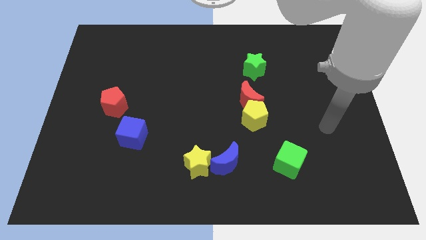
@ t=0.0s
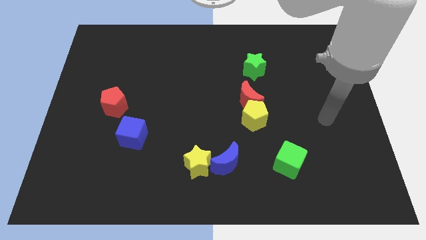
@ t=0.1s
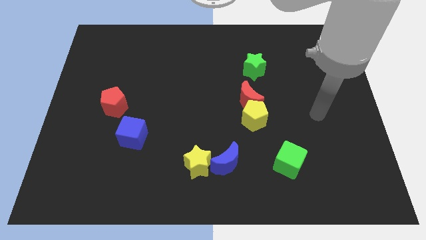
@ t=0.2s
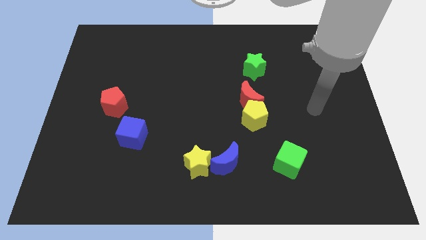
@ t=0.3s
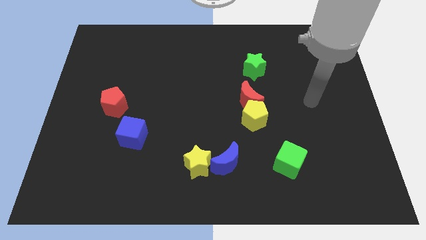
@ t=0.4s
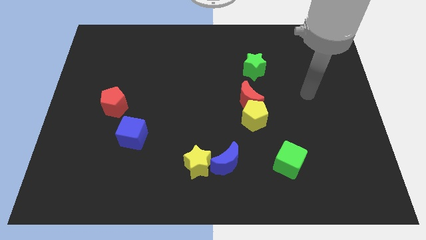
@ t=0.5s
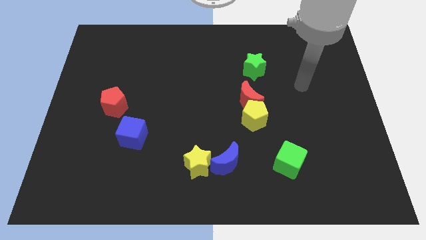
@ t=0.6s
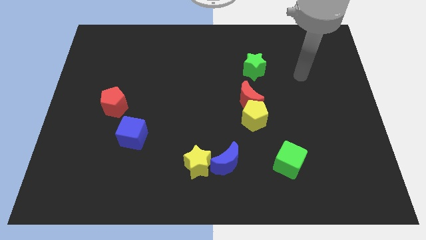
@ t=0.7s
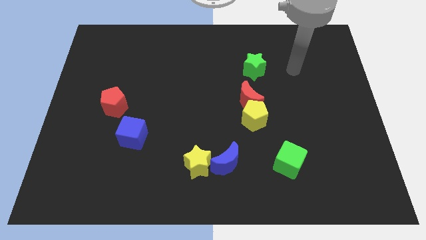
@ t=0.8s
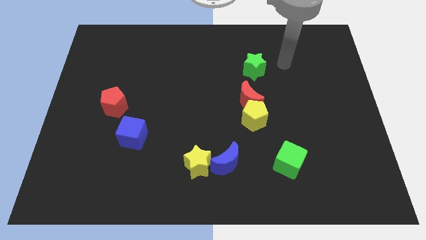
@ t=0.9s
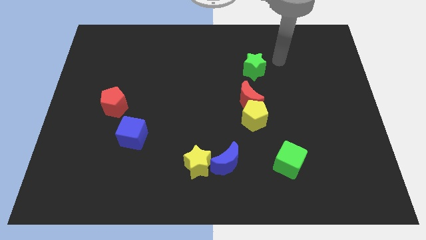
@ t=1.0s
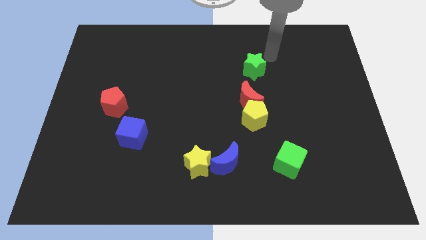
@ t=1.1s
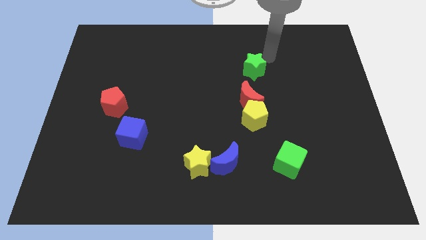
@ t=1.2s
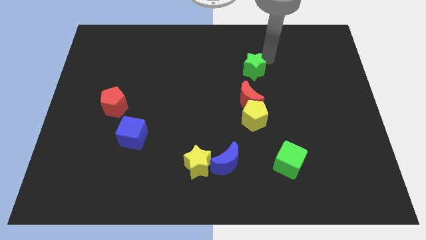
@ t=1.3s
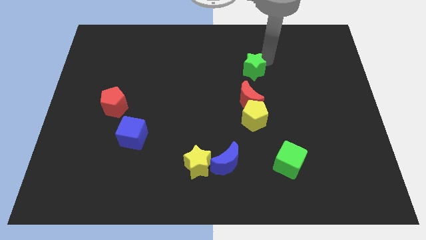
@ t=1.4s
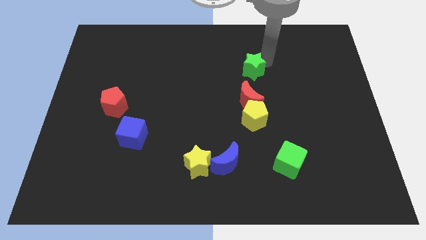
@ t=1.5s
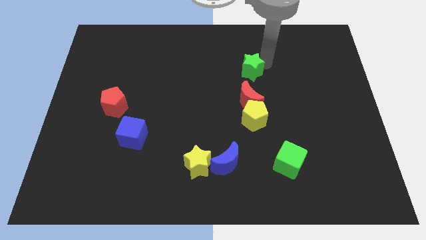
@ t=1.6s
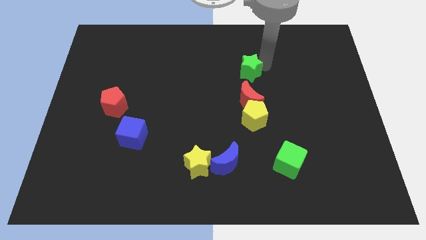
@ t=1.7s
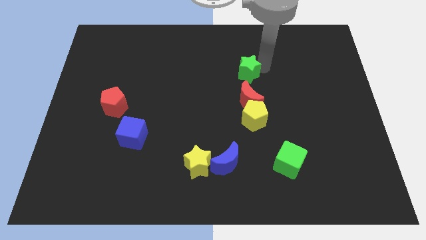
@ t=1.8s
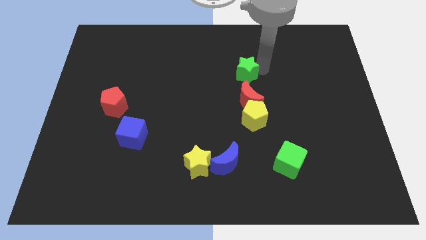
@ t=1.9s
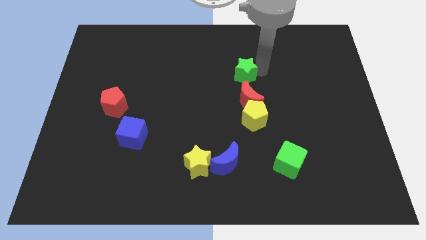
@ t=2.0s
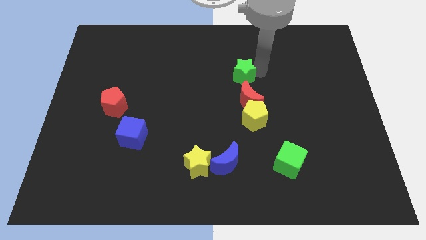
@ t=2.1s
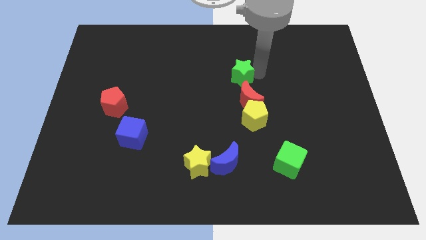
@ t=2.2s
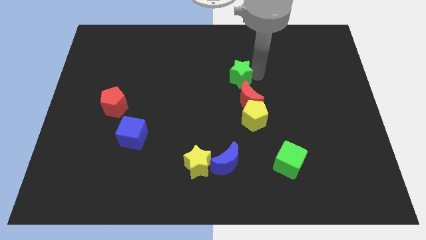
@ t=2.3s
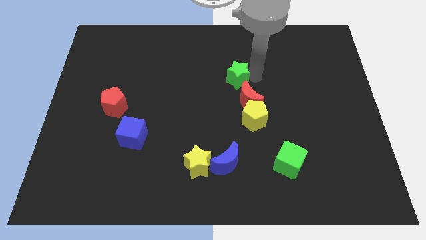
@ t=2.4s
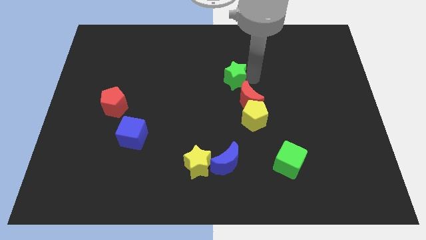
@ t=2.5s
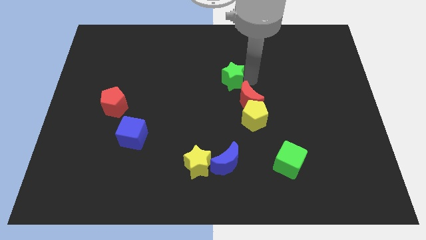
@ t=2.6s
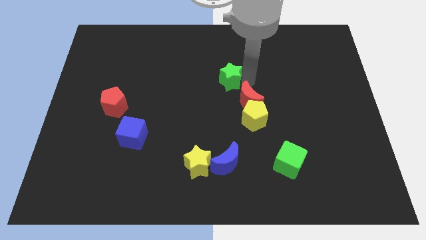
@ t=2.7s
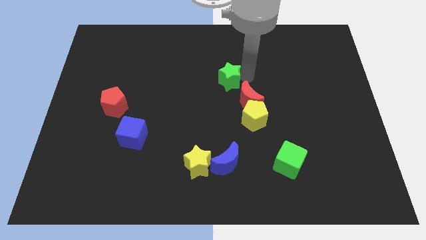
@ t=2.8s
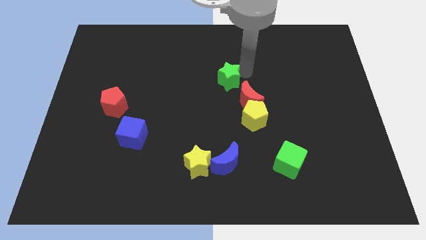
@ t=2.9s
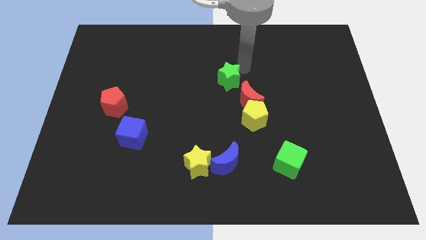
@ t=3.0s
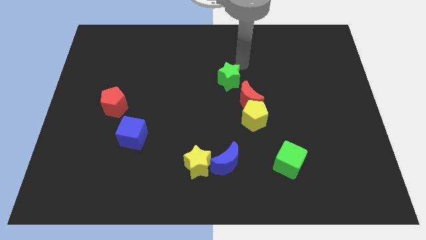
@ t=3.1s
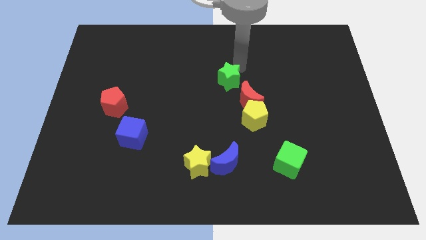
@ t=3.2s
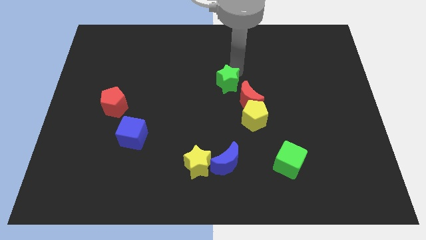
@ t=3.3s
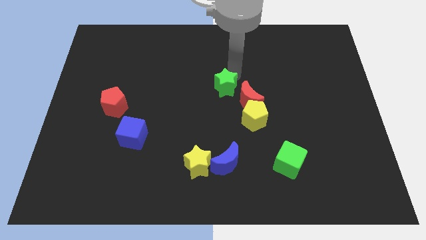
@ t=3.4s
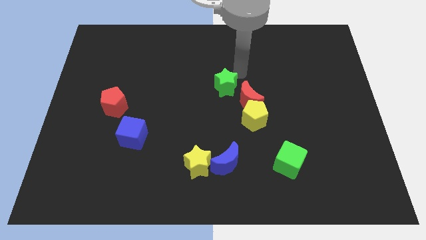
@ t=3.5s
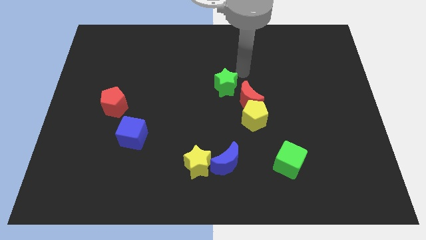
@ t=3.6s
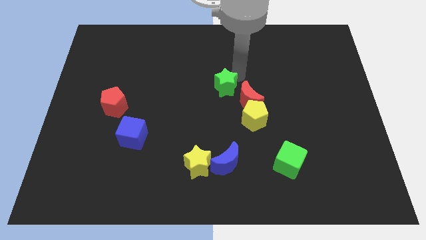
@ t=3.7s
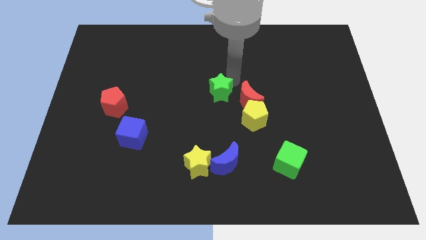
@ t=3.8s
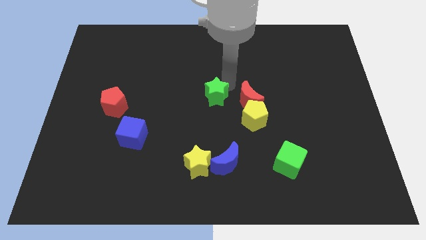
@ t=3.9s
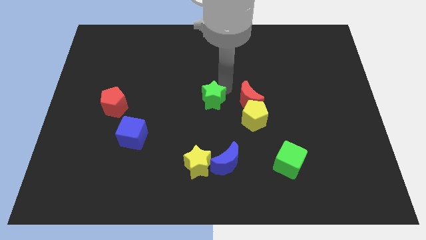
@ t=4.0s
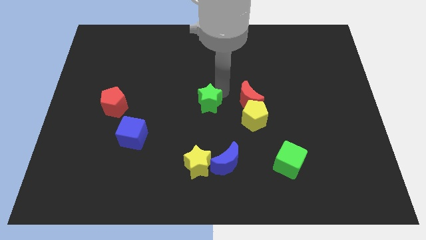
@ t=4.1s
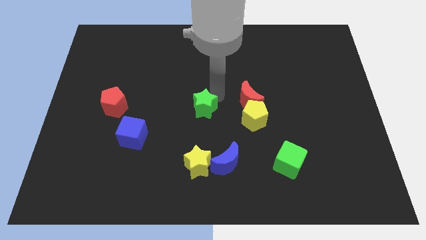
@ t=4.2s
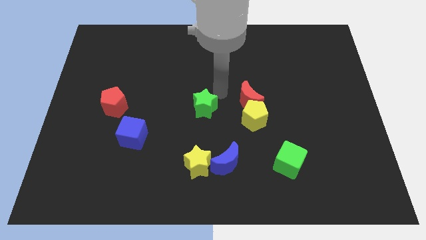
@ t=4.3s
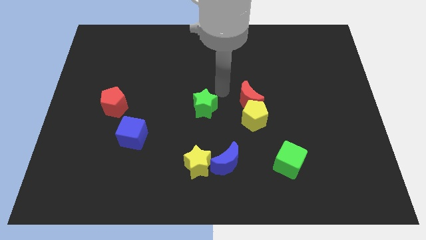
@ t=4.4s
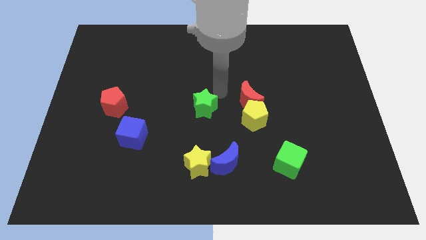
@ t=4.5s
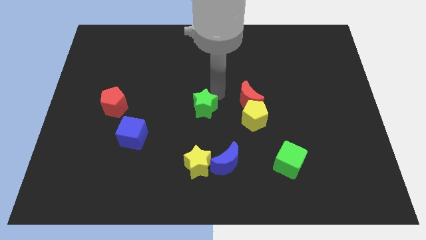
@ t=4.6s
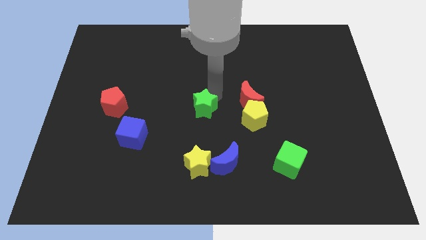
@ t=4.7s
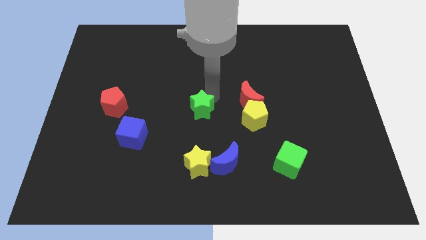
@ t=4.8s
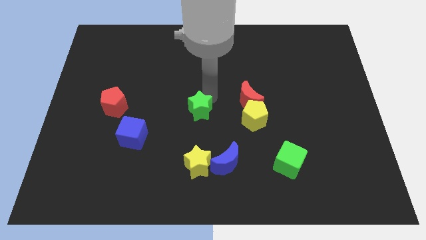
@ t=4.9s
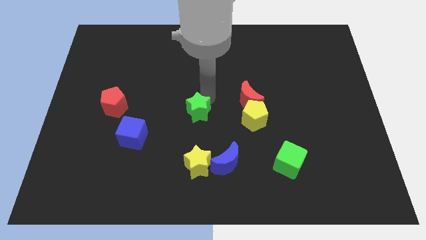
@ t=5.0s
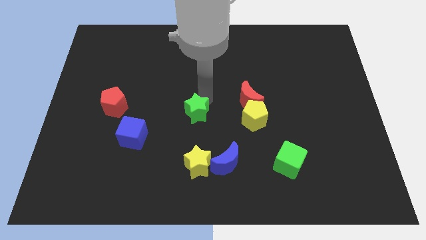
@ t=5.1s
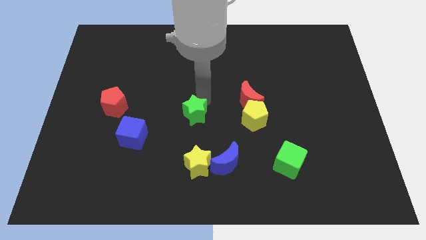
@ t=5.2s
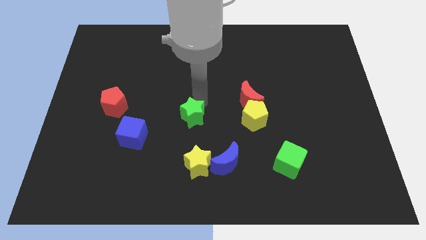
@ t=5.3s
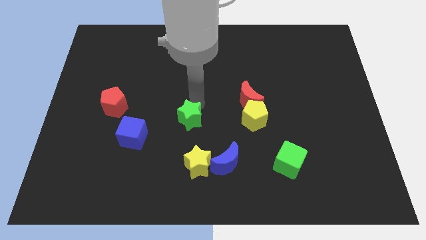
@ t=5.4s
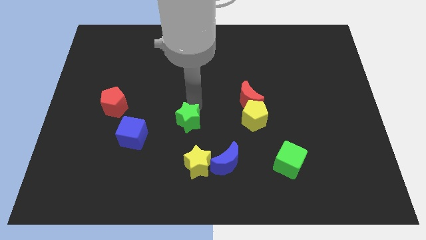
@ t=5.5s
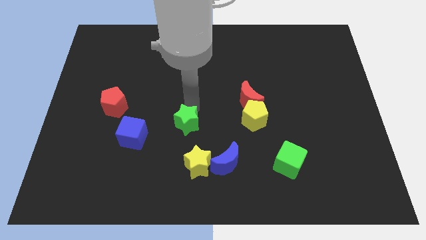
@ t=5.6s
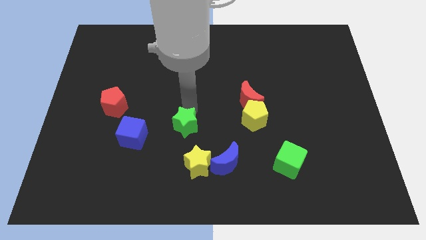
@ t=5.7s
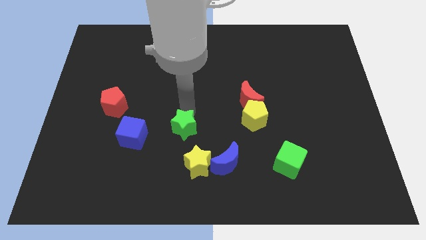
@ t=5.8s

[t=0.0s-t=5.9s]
move the green star diagonally up and to the left of the yellow star

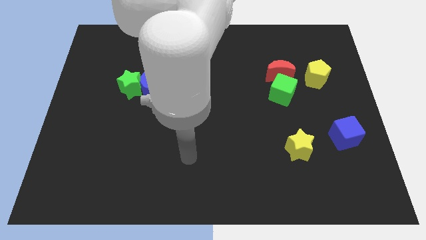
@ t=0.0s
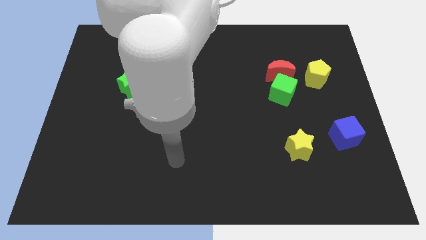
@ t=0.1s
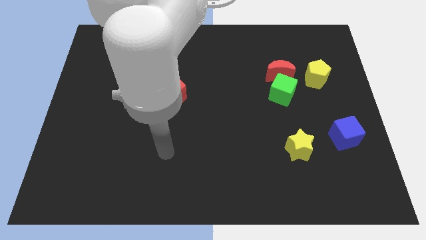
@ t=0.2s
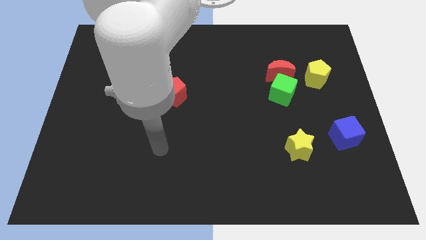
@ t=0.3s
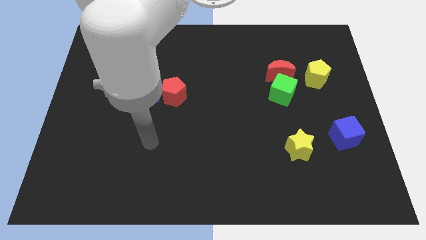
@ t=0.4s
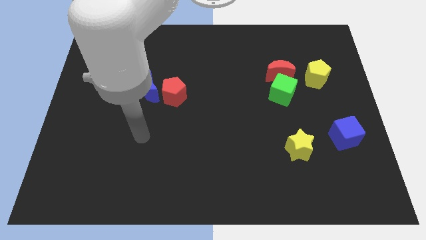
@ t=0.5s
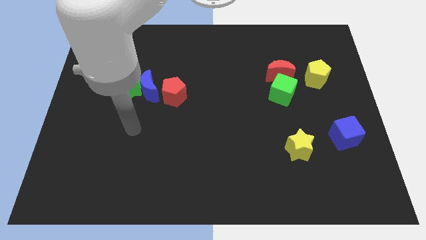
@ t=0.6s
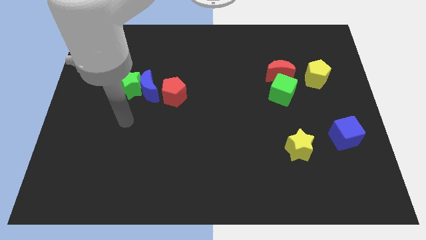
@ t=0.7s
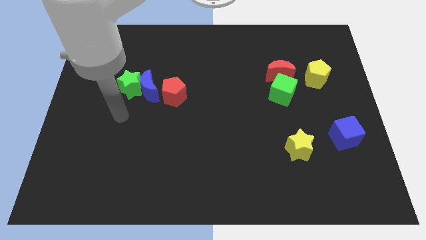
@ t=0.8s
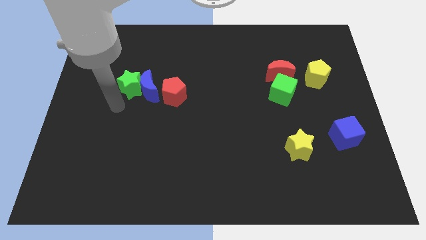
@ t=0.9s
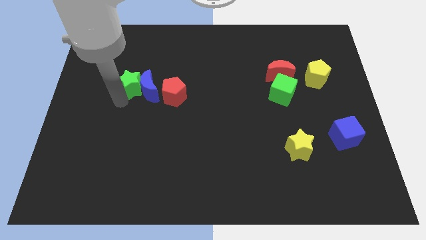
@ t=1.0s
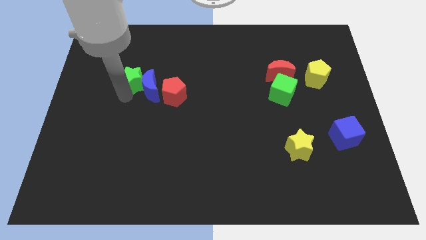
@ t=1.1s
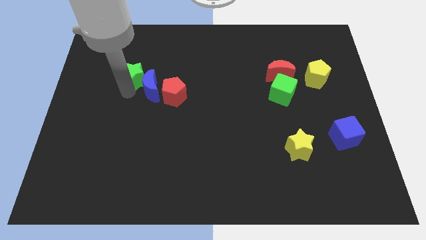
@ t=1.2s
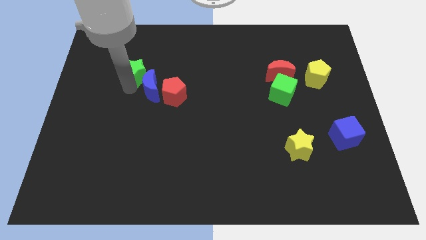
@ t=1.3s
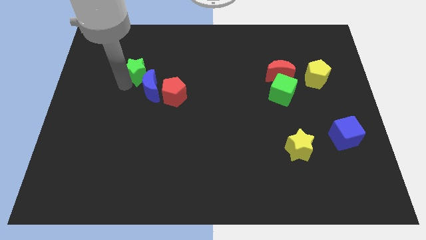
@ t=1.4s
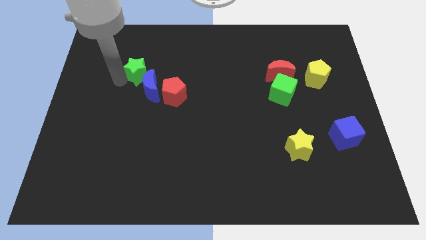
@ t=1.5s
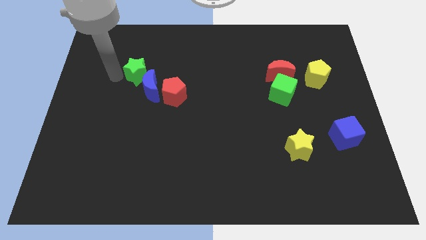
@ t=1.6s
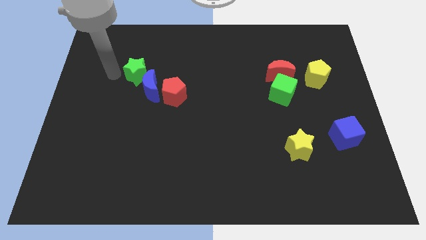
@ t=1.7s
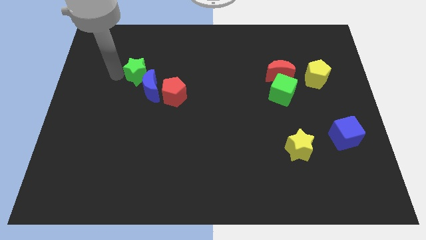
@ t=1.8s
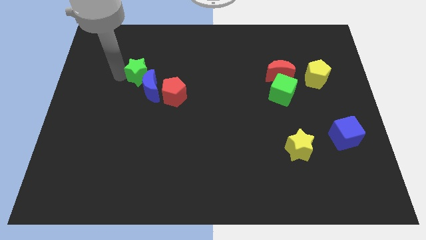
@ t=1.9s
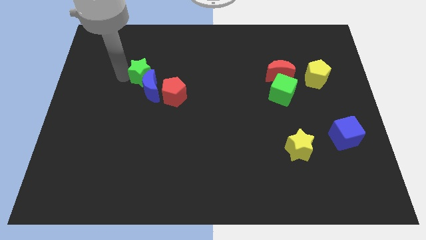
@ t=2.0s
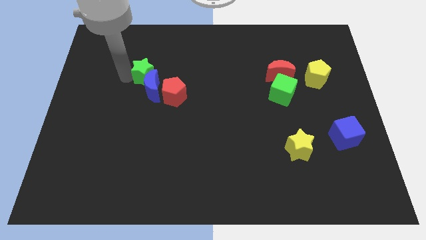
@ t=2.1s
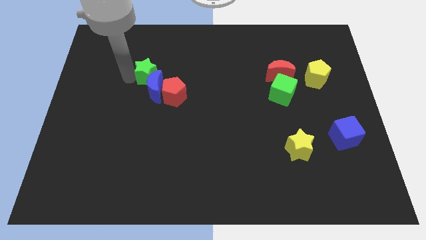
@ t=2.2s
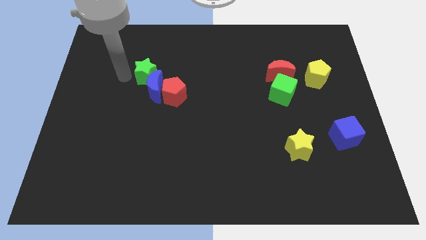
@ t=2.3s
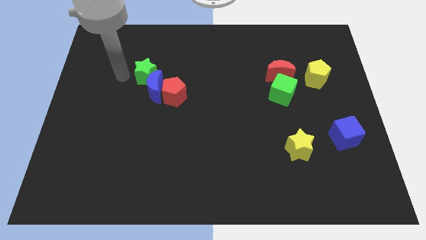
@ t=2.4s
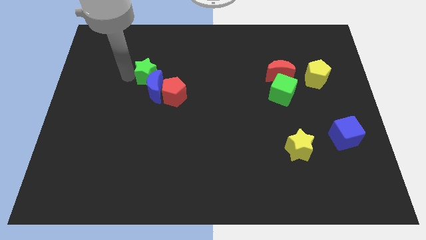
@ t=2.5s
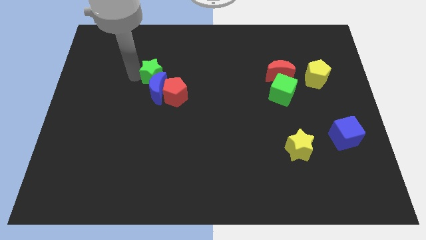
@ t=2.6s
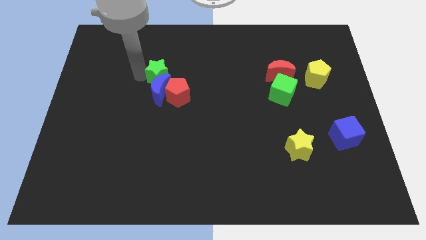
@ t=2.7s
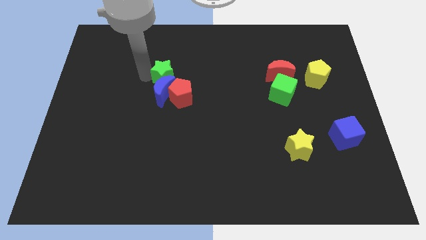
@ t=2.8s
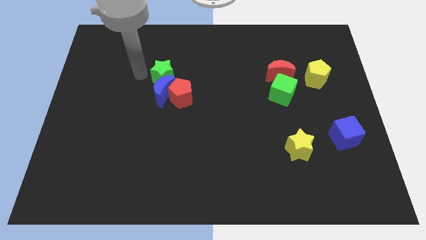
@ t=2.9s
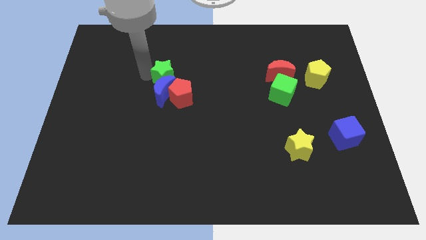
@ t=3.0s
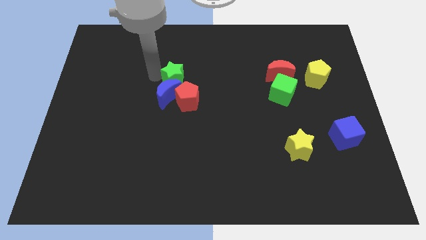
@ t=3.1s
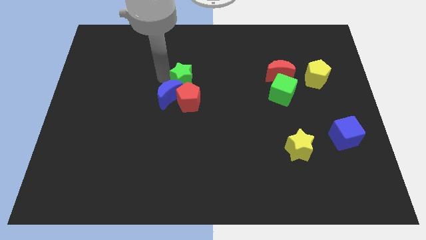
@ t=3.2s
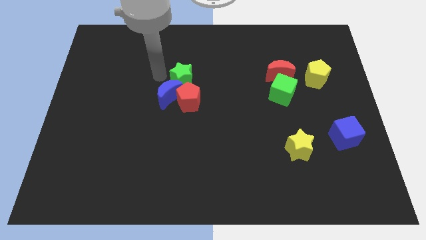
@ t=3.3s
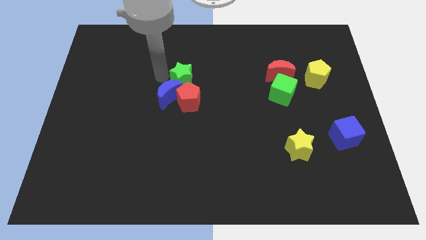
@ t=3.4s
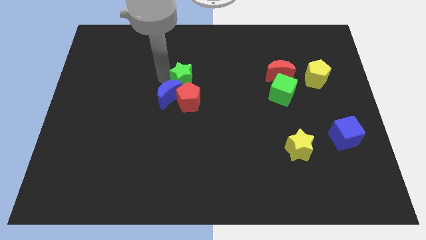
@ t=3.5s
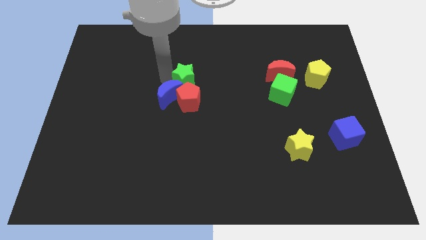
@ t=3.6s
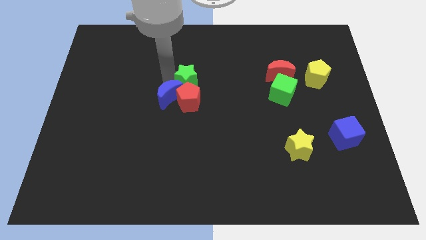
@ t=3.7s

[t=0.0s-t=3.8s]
push the green star to the top right side of the red pentagon
